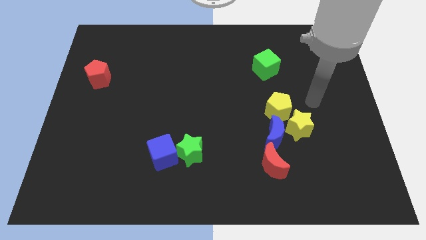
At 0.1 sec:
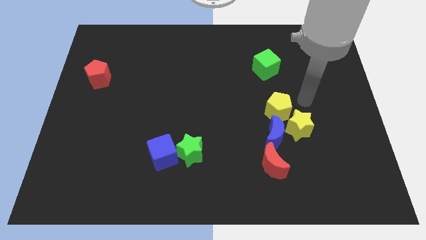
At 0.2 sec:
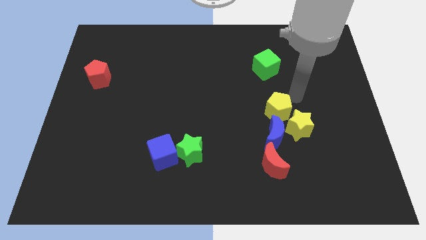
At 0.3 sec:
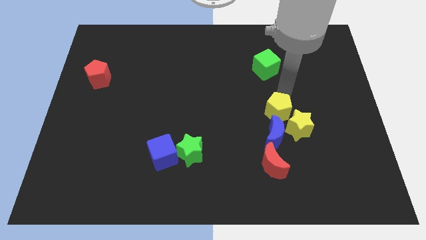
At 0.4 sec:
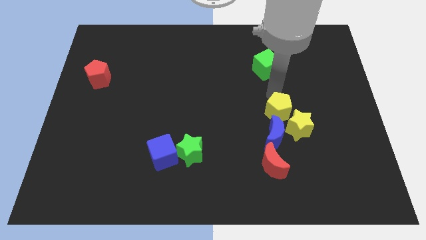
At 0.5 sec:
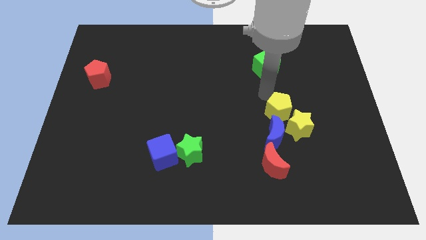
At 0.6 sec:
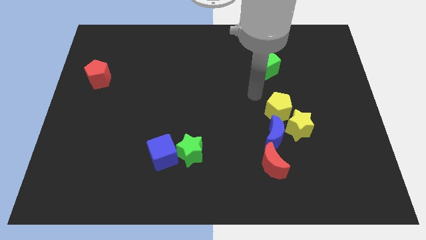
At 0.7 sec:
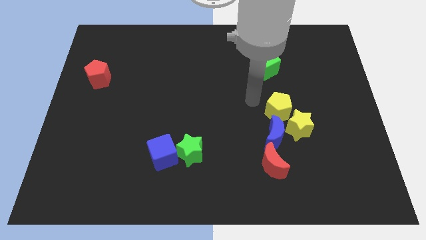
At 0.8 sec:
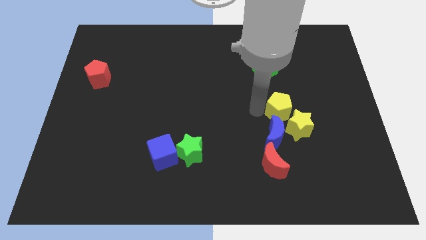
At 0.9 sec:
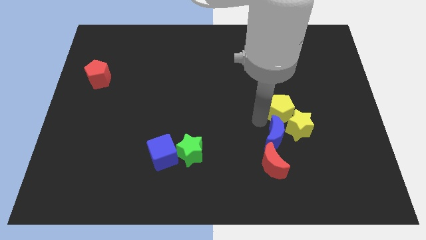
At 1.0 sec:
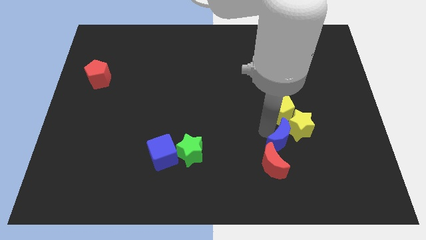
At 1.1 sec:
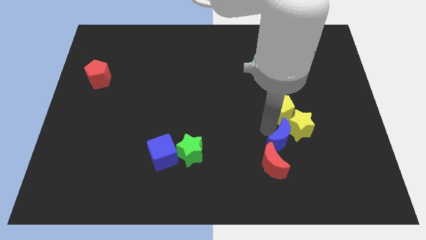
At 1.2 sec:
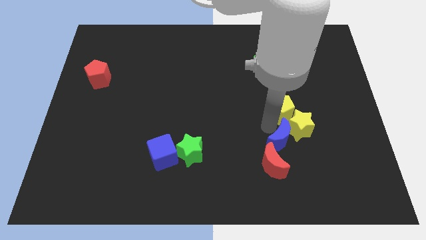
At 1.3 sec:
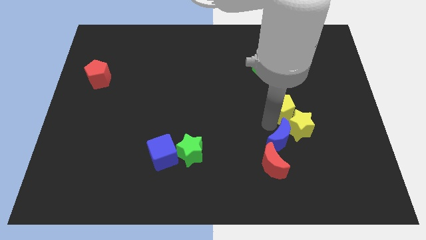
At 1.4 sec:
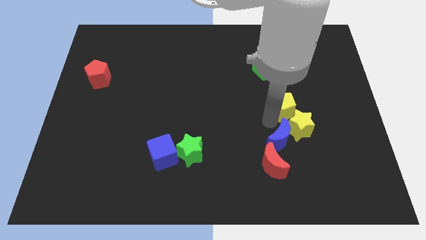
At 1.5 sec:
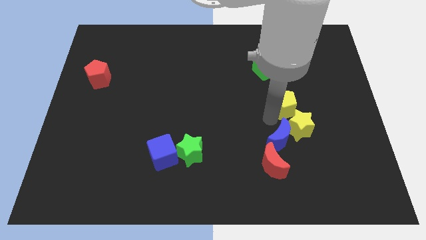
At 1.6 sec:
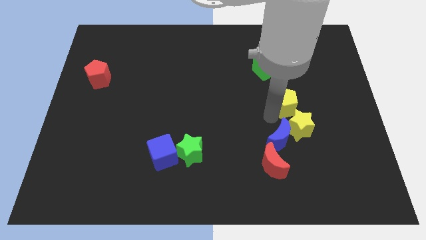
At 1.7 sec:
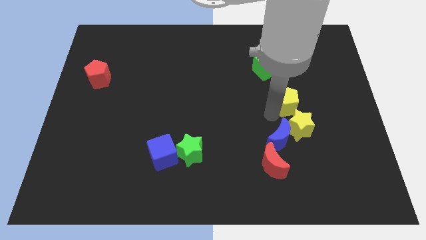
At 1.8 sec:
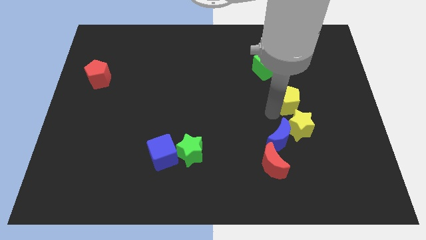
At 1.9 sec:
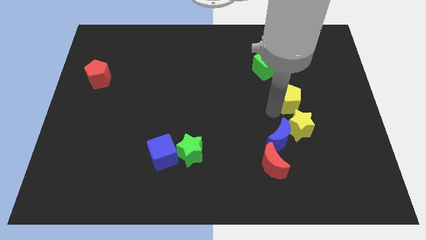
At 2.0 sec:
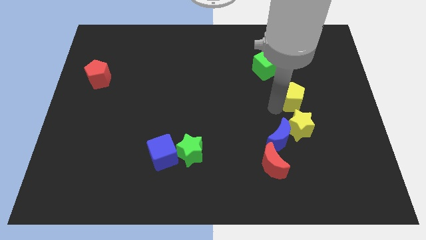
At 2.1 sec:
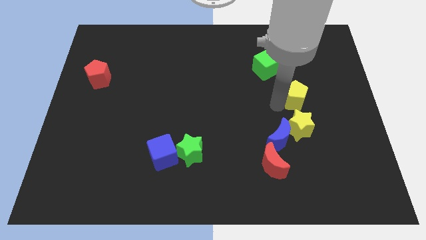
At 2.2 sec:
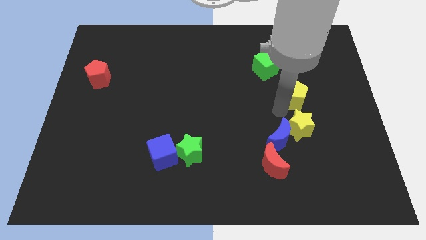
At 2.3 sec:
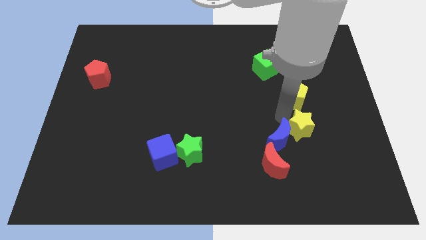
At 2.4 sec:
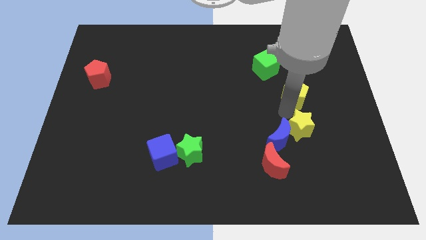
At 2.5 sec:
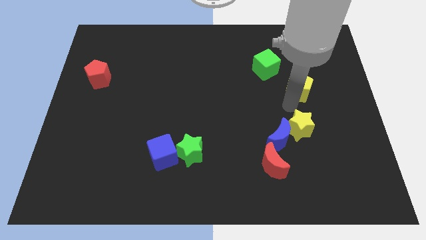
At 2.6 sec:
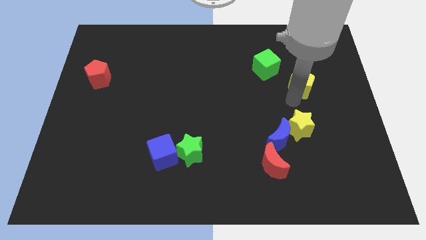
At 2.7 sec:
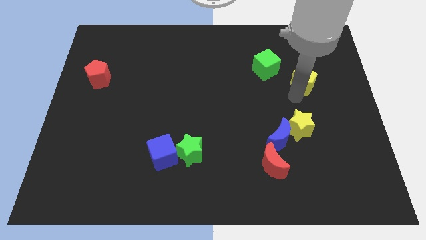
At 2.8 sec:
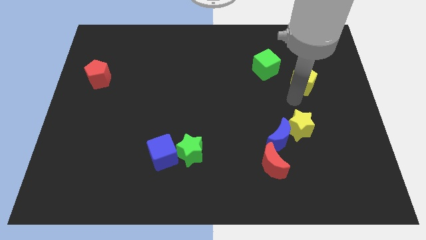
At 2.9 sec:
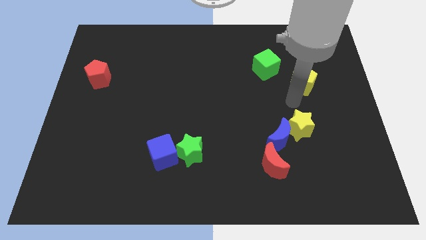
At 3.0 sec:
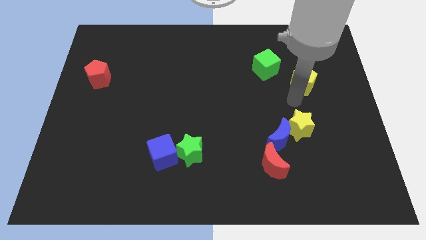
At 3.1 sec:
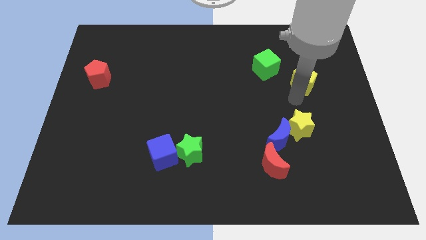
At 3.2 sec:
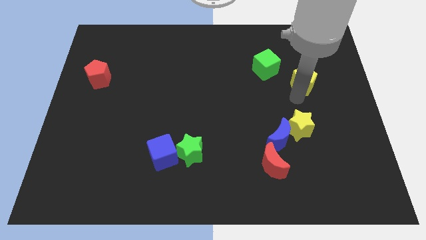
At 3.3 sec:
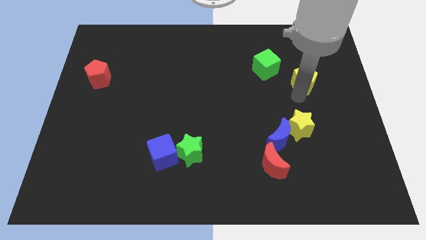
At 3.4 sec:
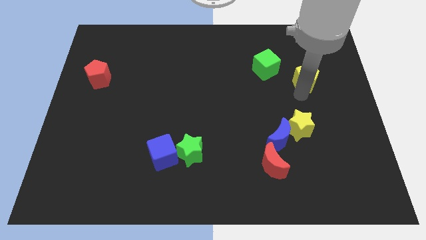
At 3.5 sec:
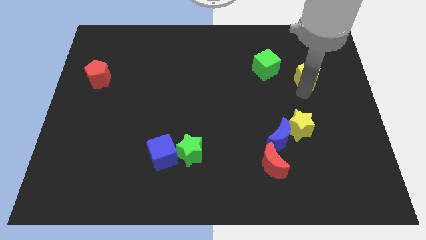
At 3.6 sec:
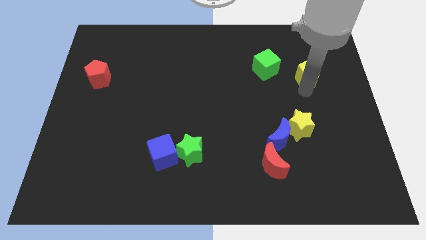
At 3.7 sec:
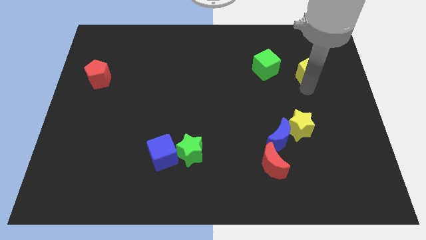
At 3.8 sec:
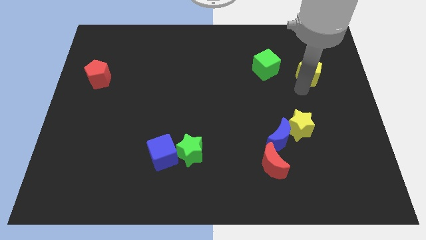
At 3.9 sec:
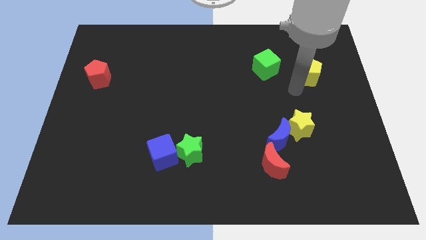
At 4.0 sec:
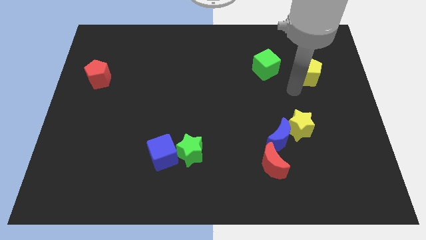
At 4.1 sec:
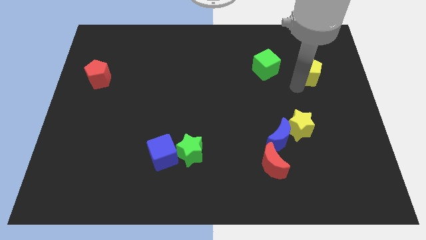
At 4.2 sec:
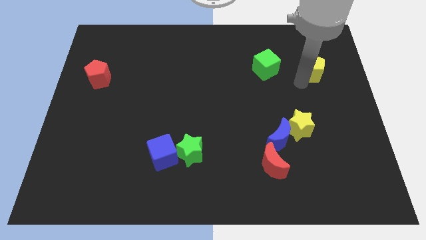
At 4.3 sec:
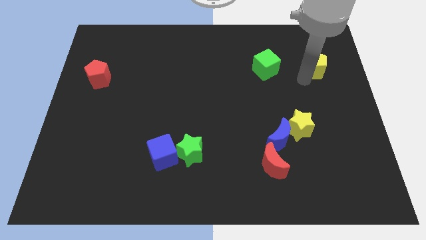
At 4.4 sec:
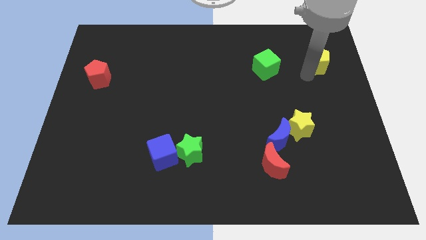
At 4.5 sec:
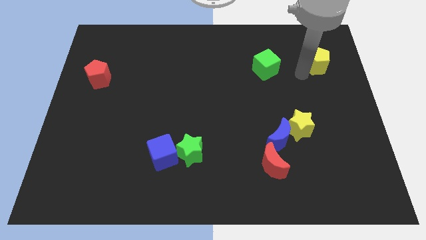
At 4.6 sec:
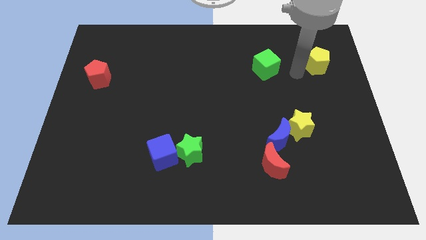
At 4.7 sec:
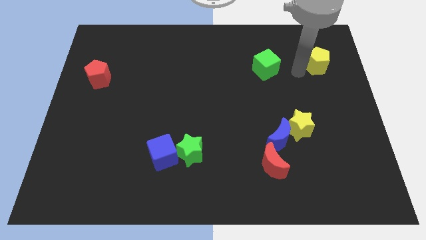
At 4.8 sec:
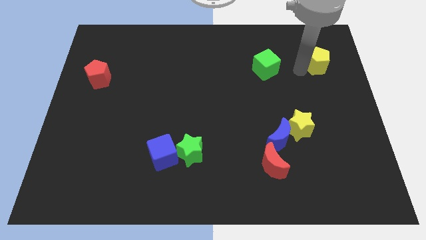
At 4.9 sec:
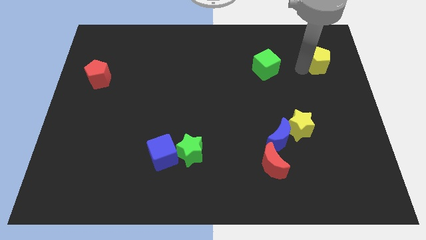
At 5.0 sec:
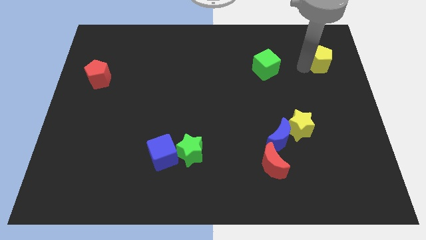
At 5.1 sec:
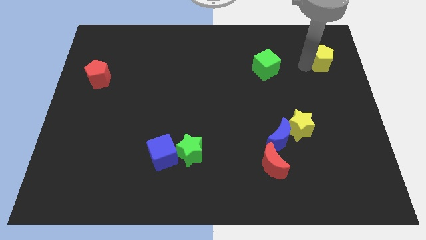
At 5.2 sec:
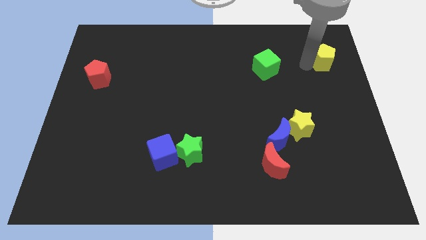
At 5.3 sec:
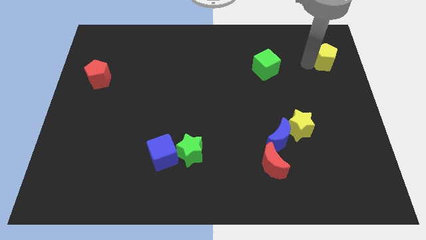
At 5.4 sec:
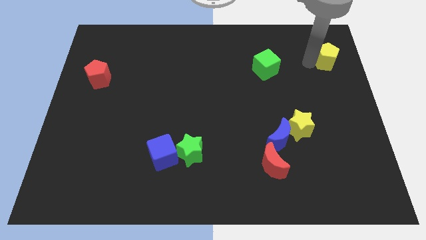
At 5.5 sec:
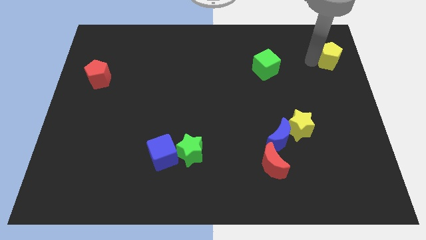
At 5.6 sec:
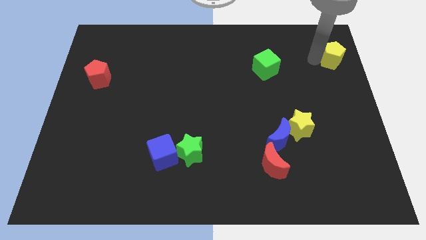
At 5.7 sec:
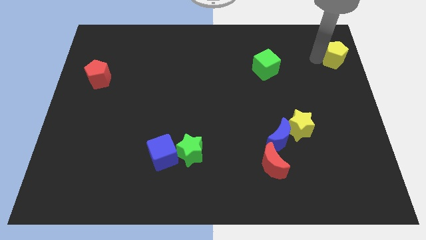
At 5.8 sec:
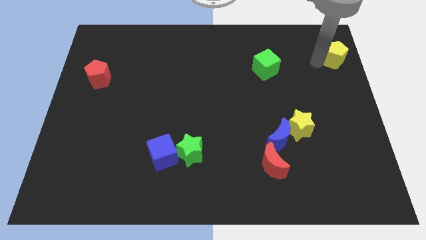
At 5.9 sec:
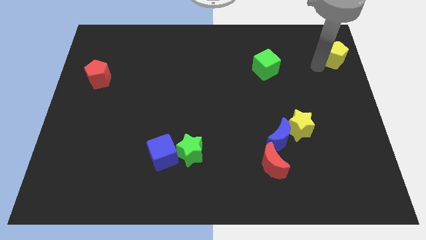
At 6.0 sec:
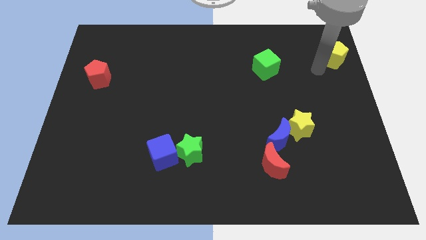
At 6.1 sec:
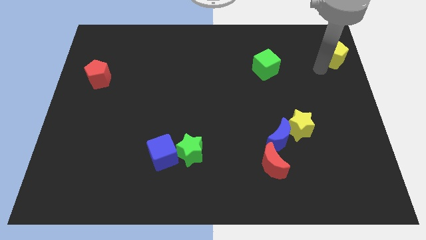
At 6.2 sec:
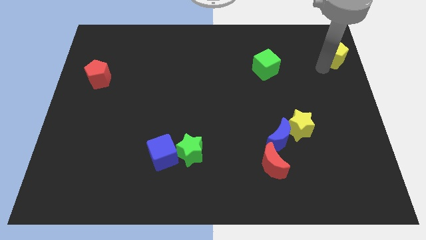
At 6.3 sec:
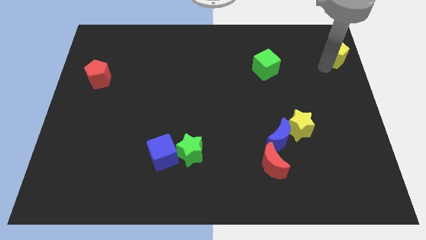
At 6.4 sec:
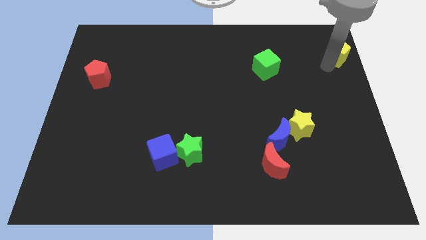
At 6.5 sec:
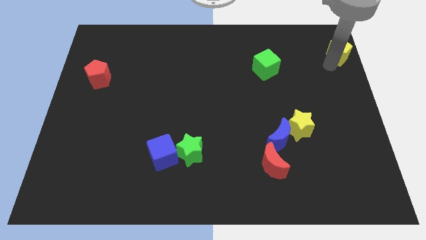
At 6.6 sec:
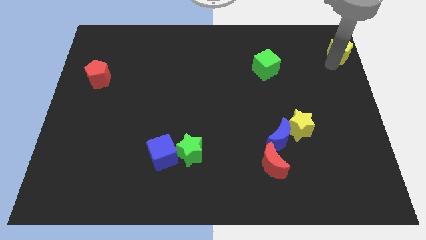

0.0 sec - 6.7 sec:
slide the yellow pentagon to the top right of the board
